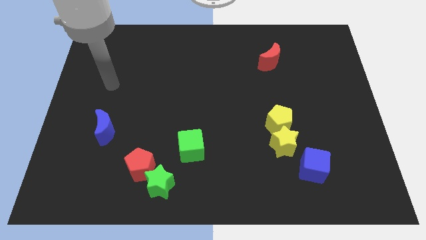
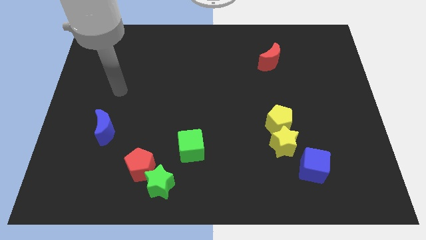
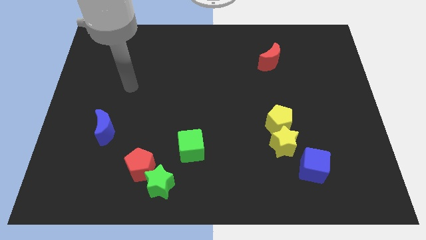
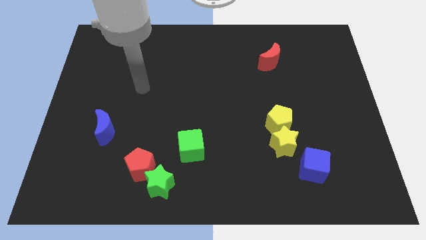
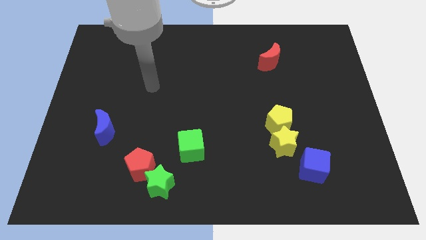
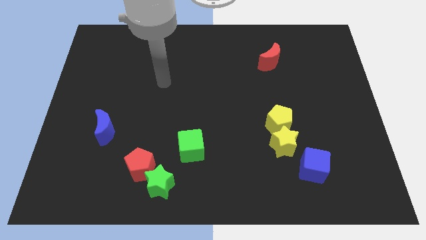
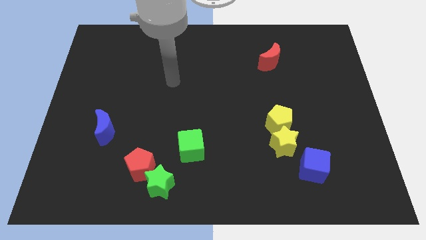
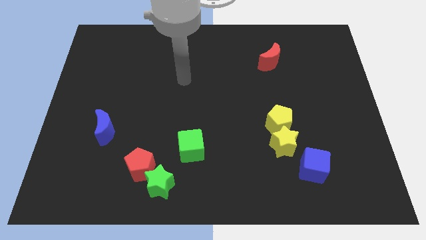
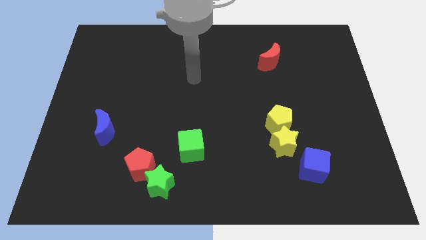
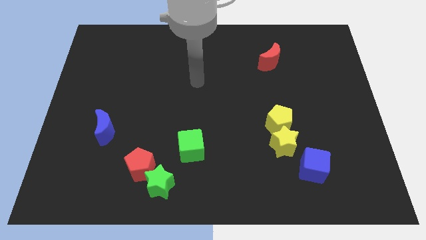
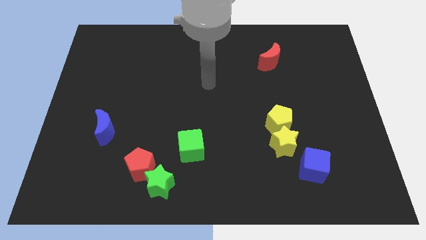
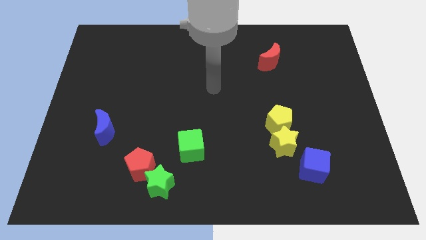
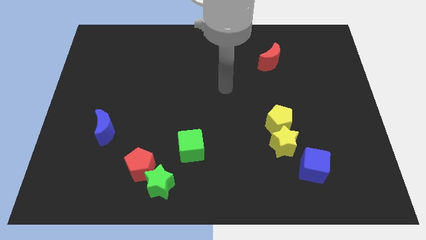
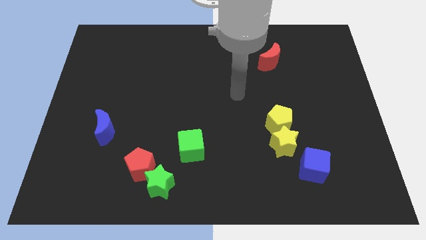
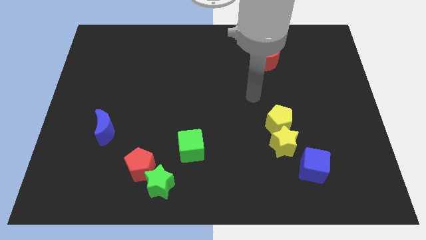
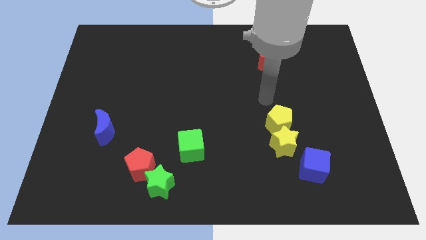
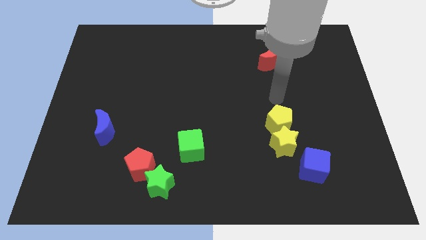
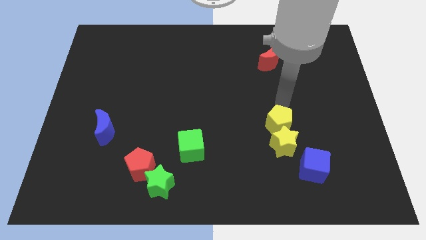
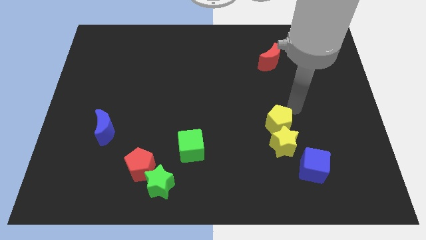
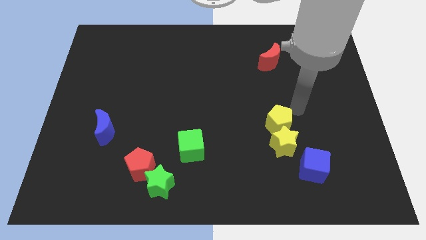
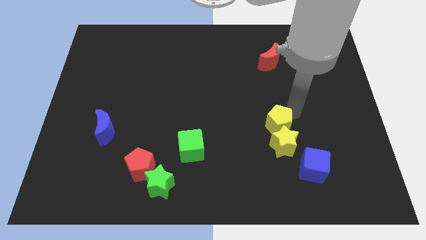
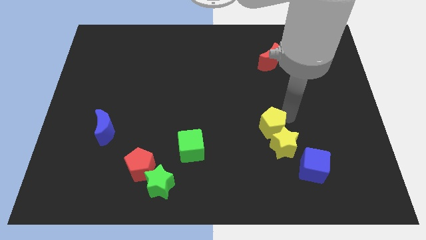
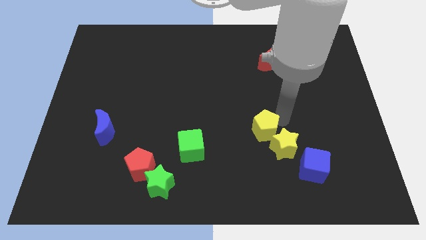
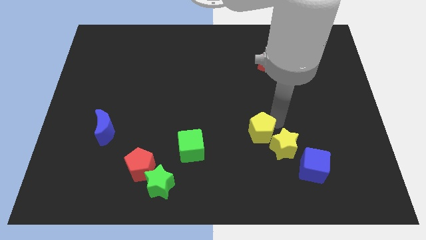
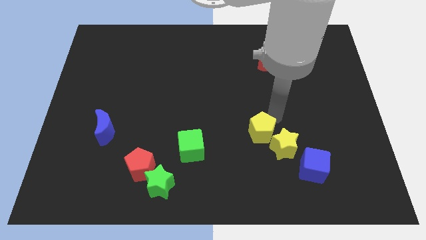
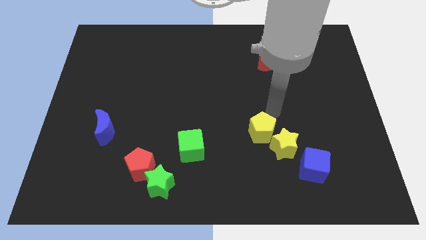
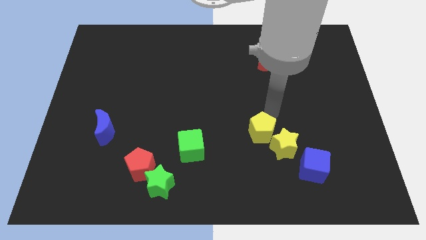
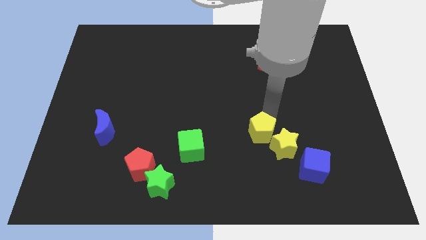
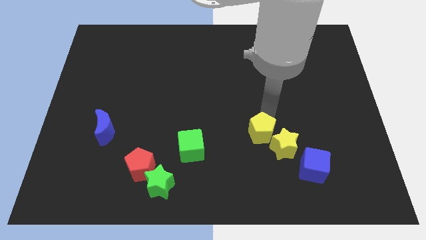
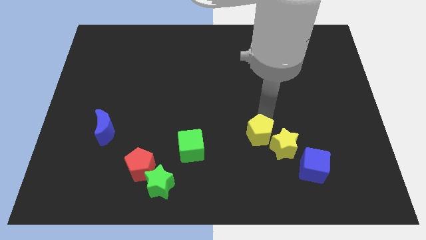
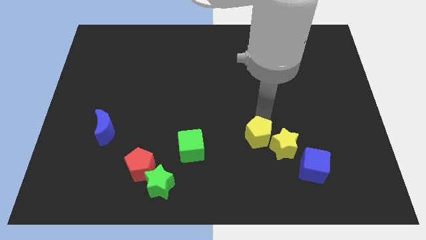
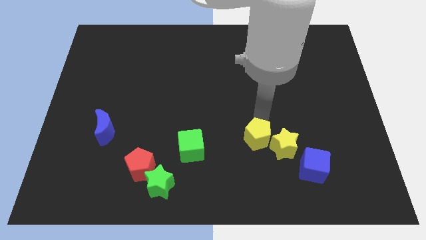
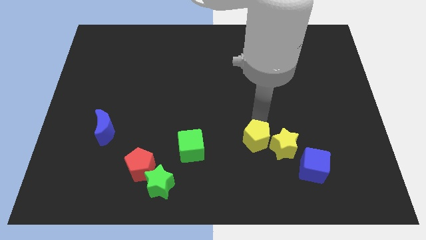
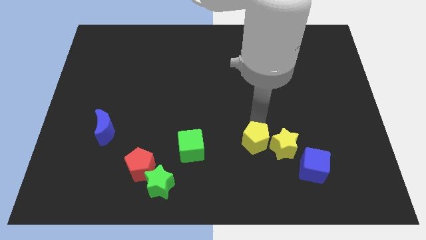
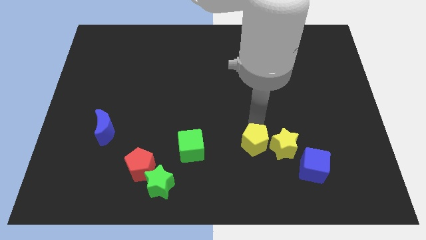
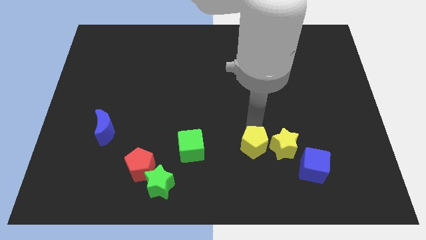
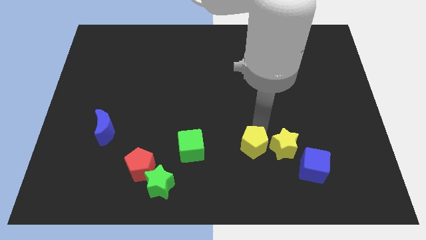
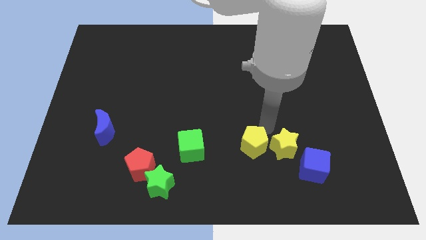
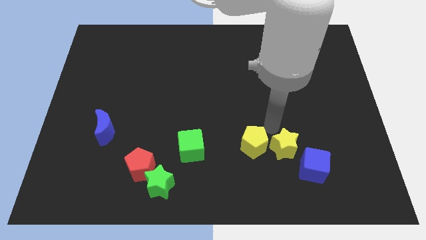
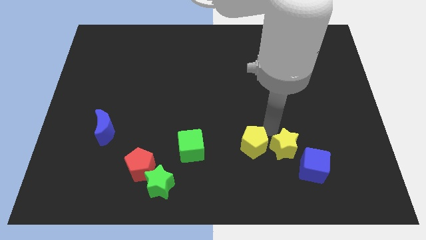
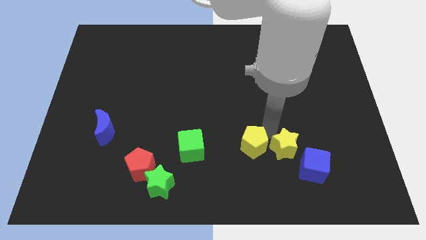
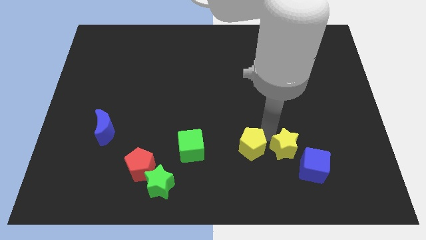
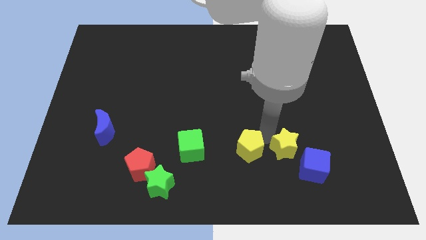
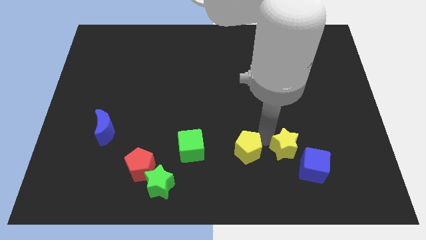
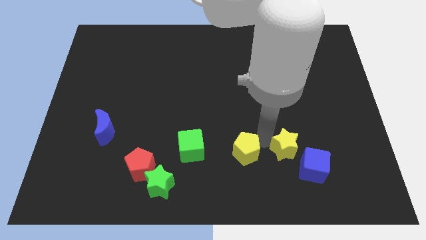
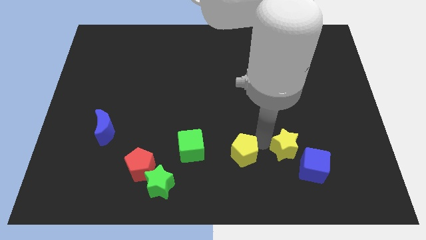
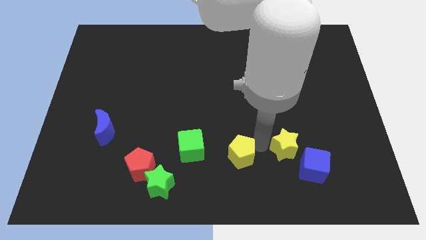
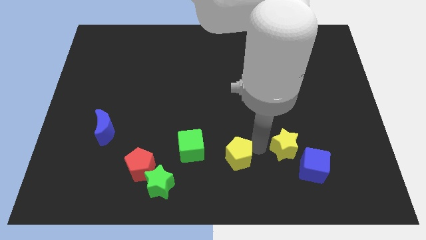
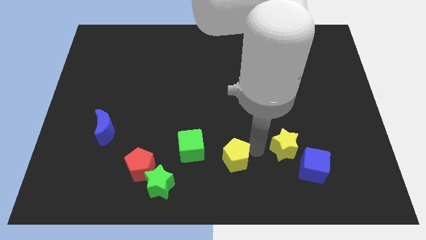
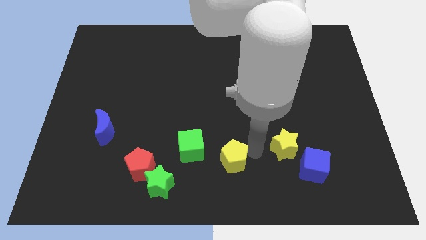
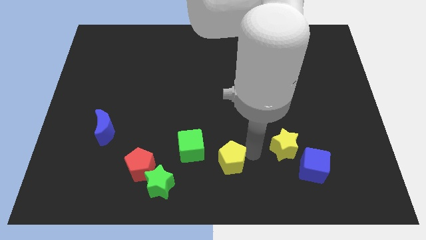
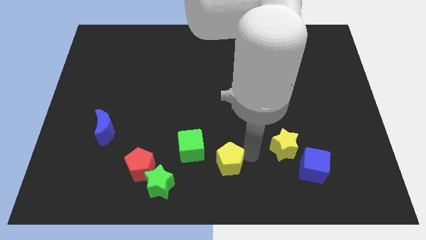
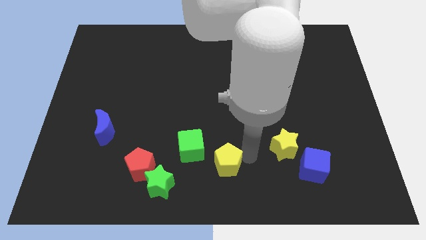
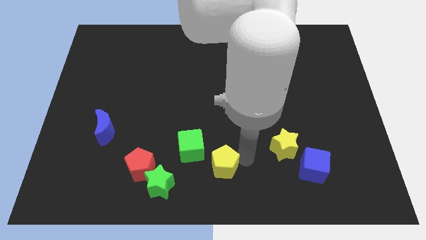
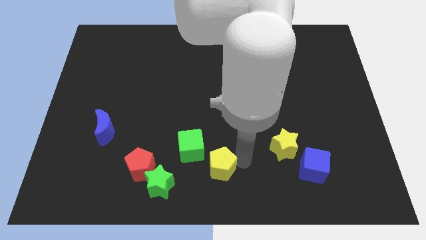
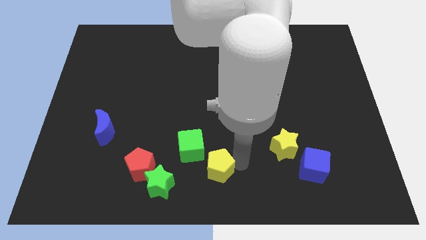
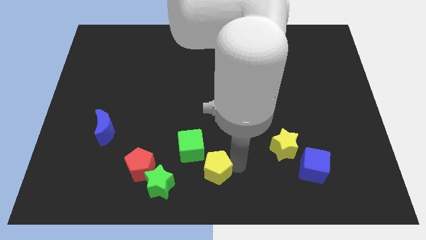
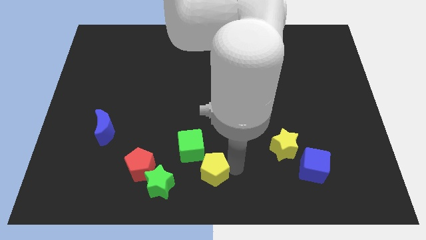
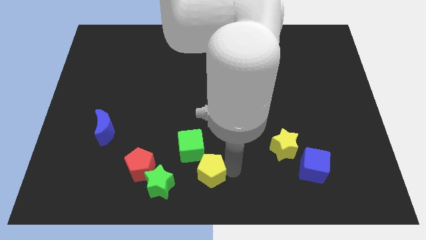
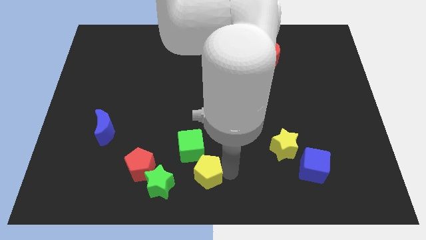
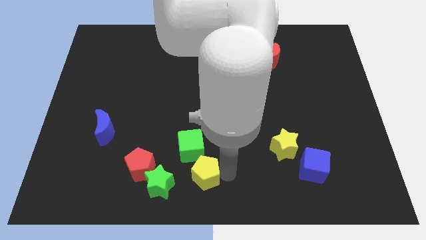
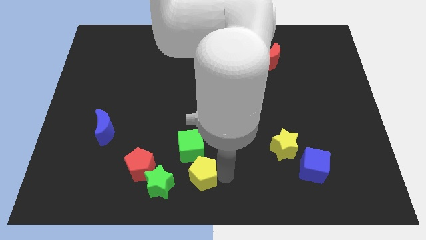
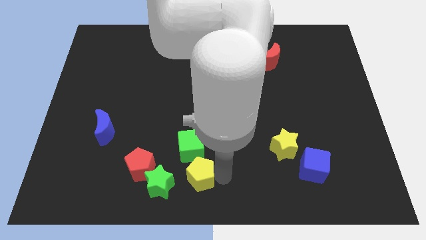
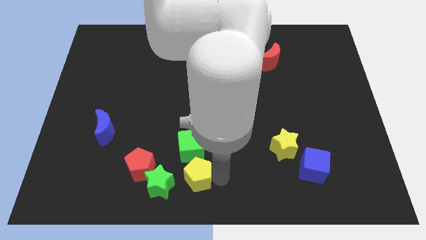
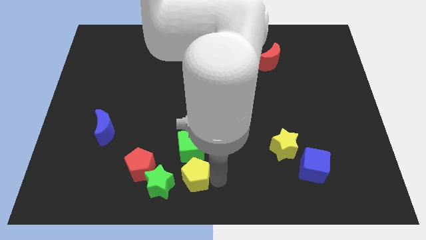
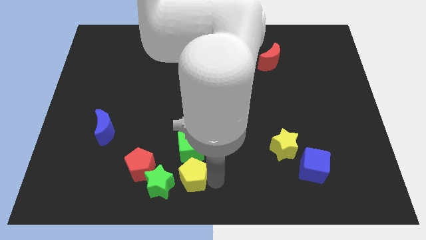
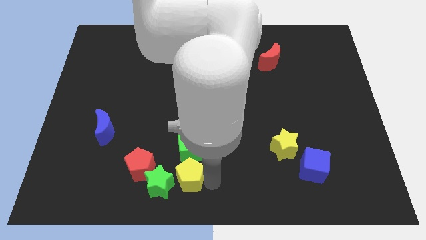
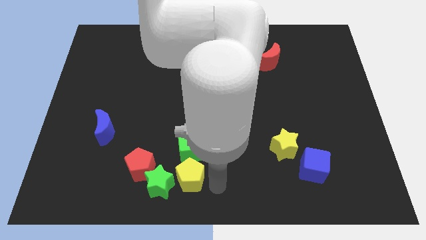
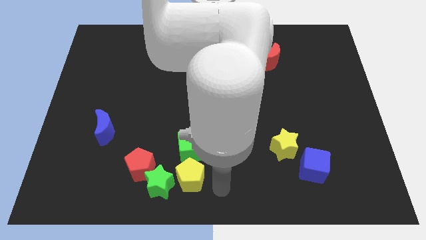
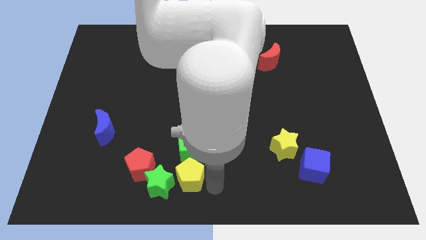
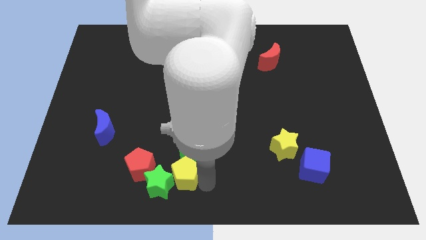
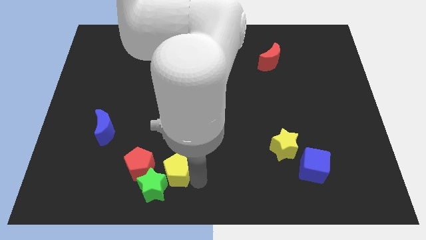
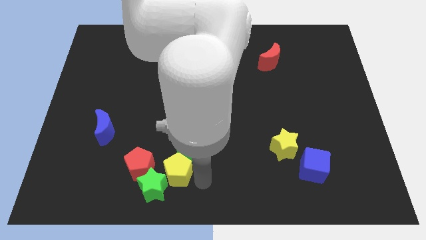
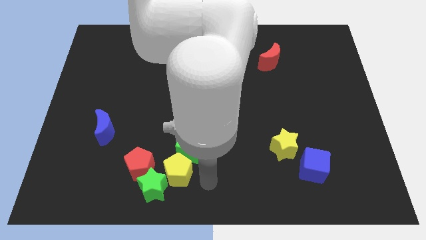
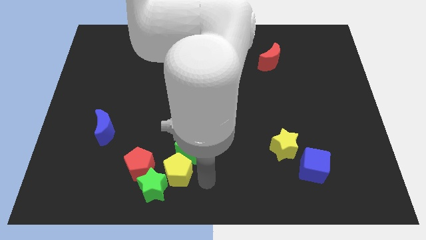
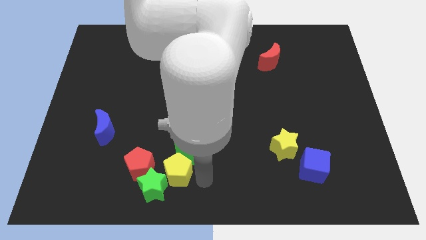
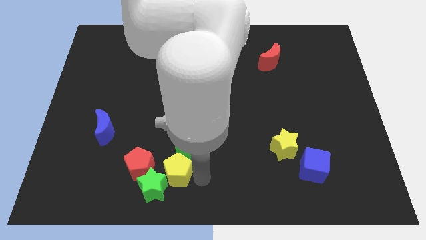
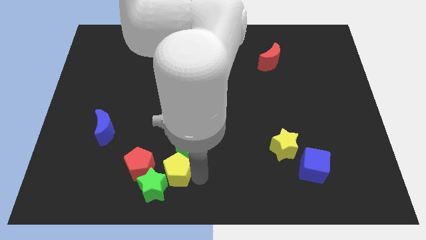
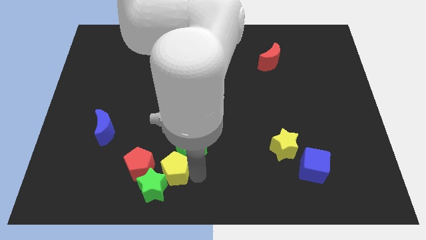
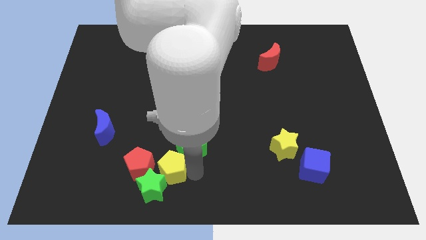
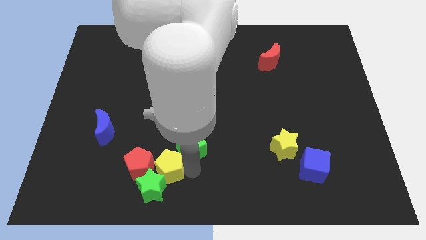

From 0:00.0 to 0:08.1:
push the yellow pentagon next to the red pentagon
